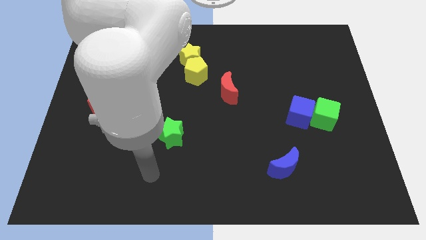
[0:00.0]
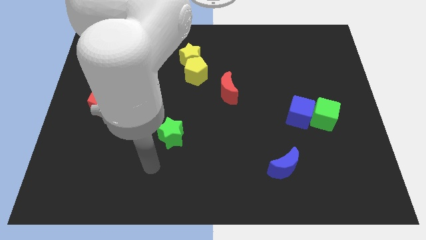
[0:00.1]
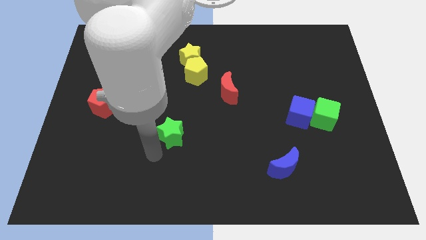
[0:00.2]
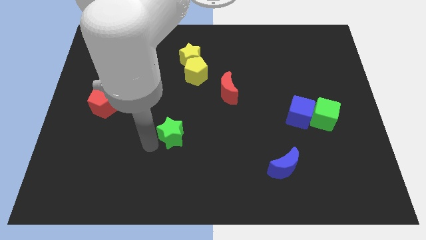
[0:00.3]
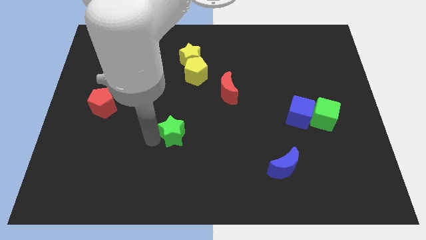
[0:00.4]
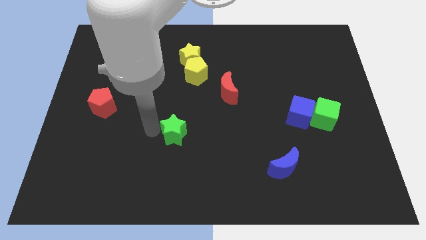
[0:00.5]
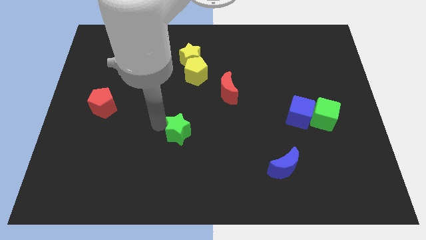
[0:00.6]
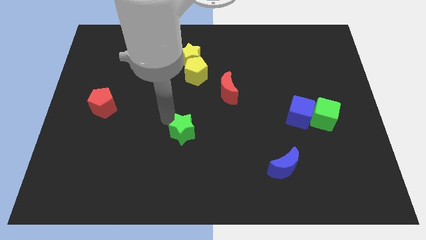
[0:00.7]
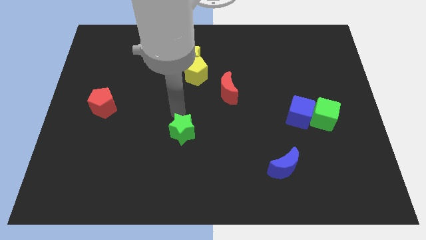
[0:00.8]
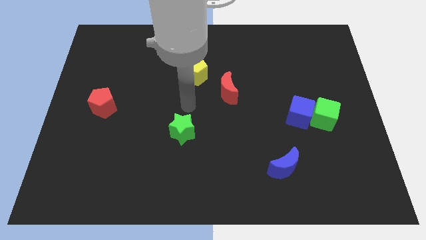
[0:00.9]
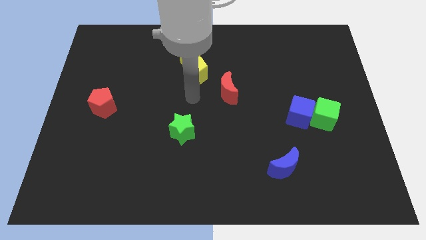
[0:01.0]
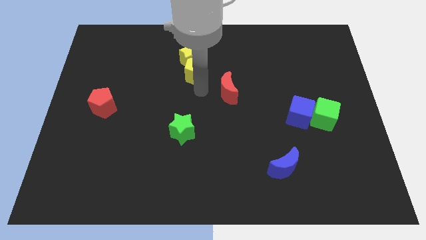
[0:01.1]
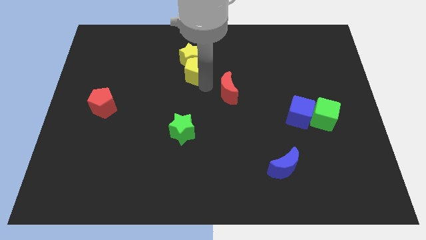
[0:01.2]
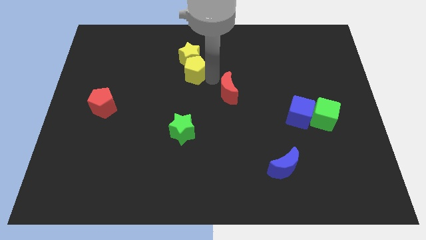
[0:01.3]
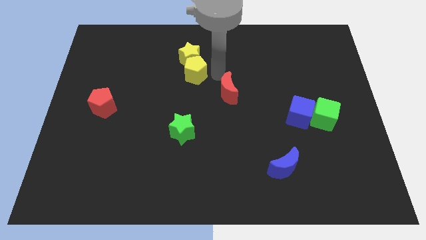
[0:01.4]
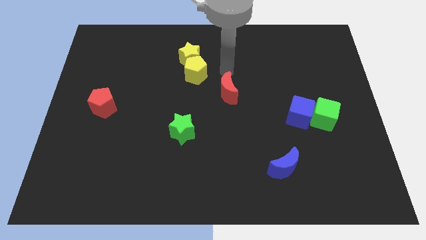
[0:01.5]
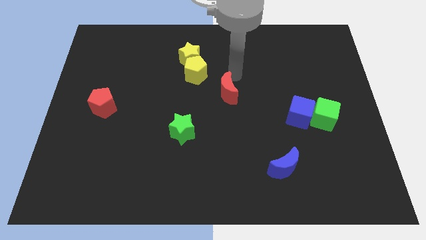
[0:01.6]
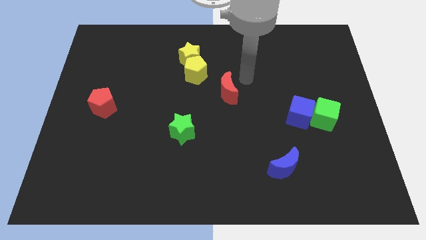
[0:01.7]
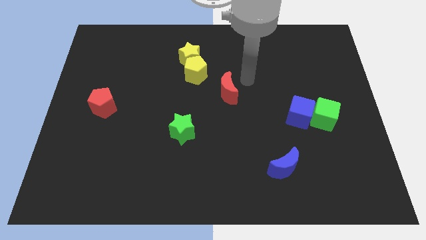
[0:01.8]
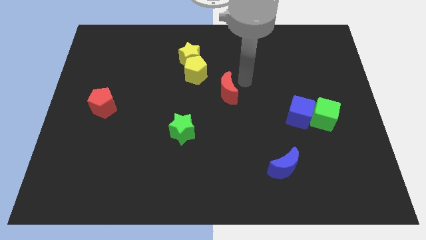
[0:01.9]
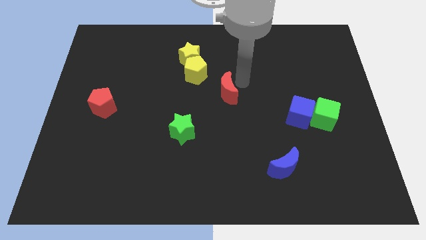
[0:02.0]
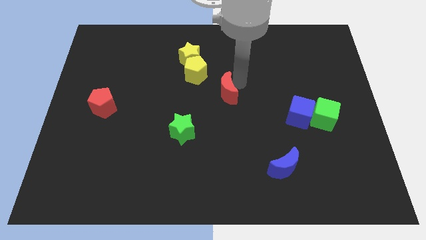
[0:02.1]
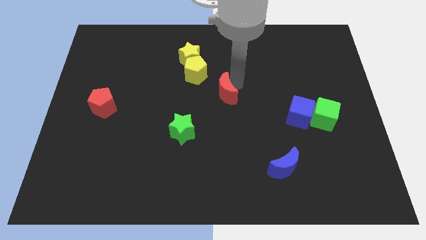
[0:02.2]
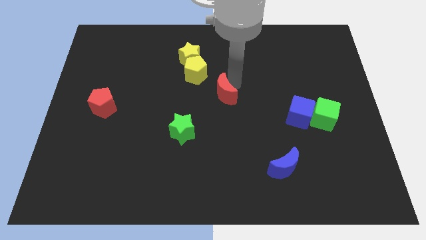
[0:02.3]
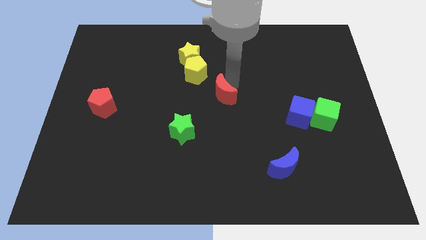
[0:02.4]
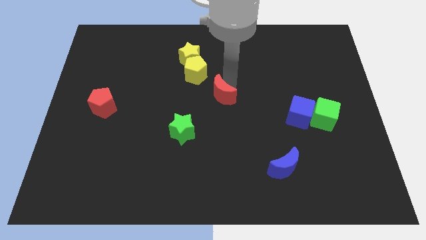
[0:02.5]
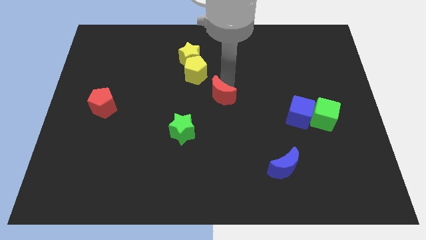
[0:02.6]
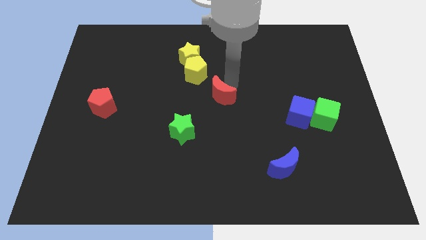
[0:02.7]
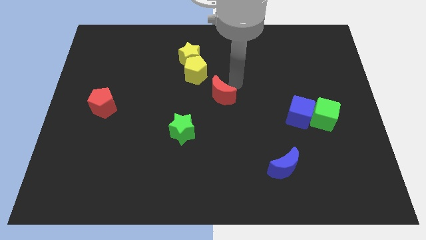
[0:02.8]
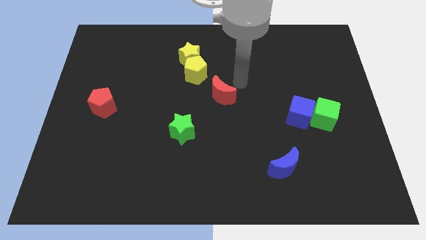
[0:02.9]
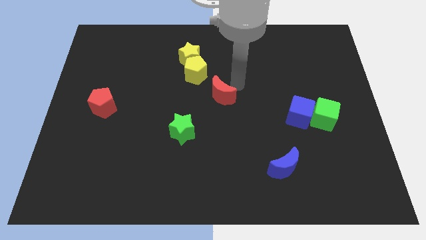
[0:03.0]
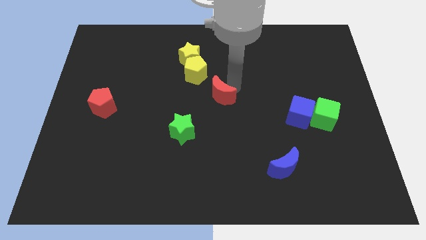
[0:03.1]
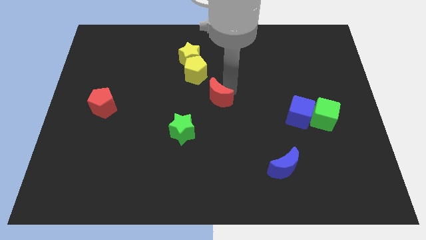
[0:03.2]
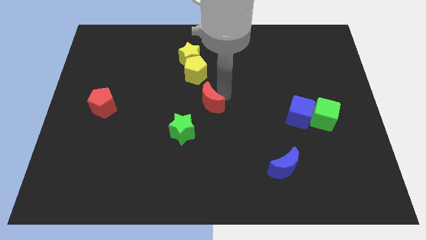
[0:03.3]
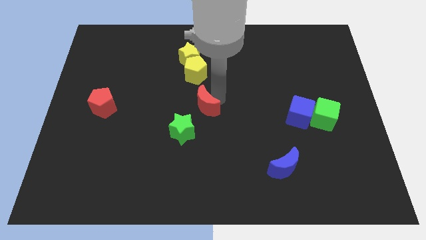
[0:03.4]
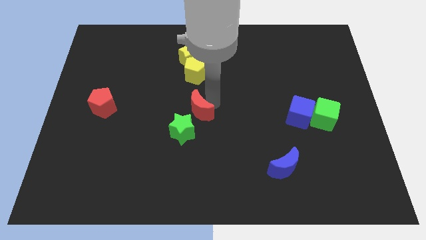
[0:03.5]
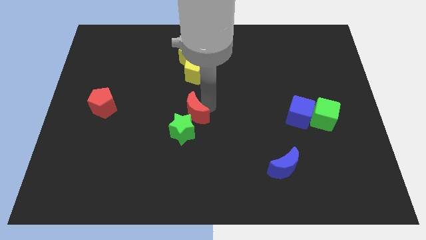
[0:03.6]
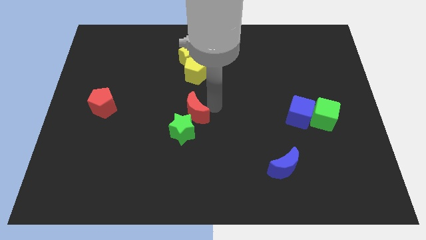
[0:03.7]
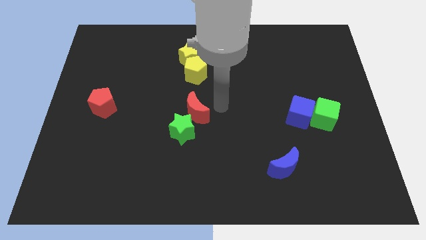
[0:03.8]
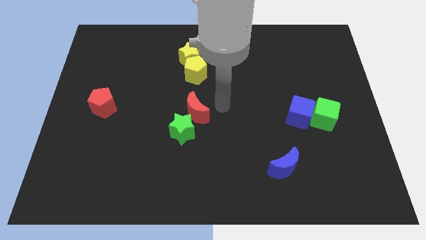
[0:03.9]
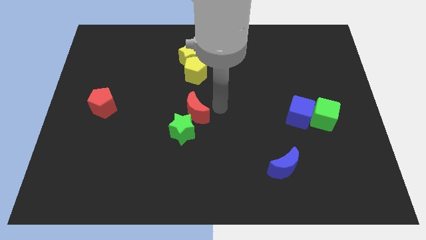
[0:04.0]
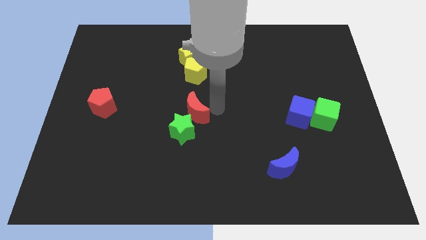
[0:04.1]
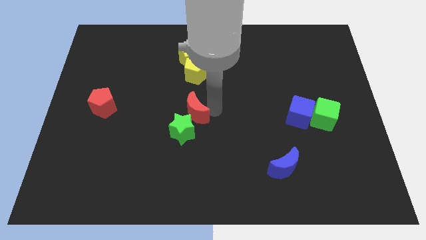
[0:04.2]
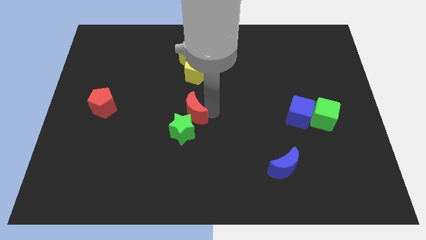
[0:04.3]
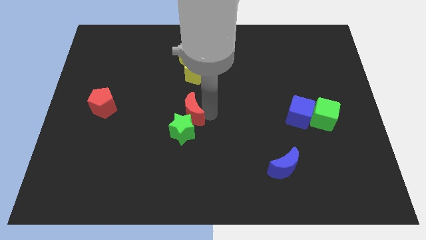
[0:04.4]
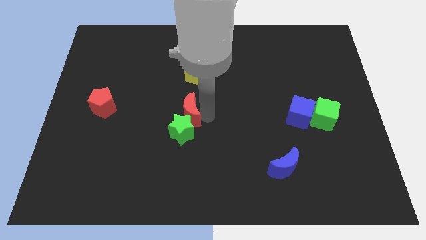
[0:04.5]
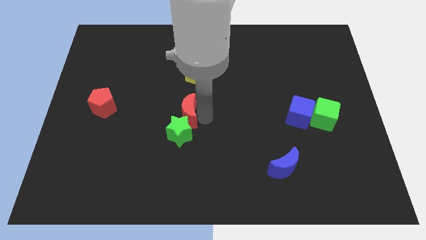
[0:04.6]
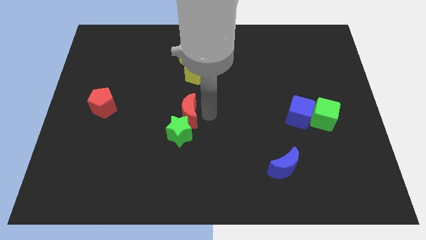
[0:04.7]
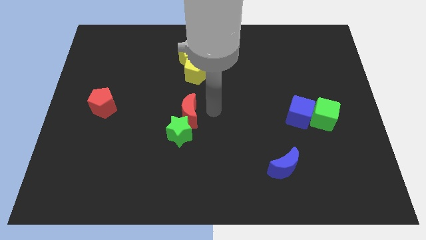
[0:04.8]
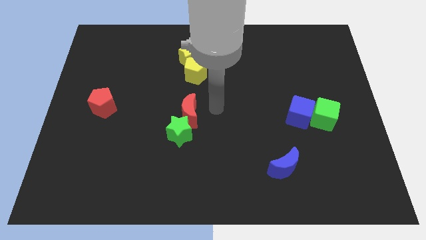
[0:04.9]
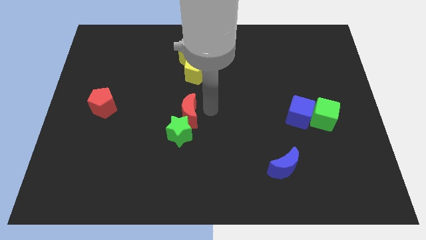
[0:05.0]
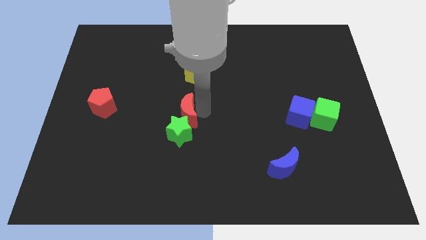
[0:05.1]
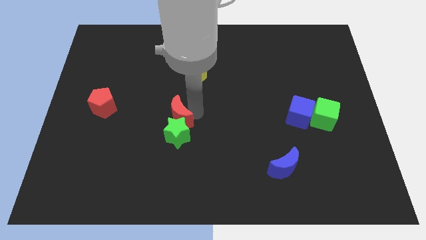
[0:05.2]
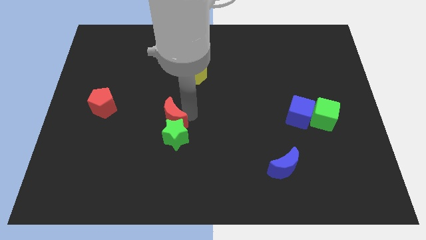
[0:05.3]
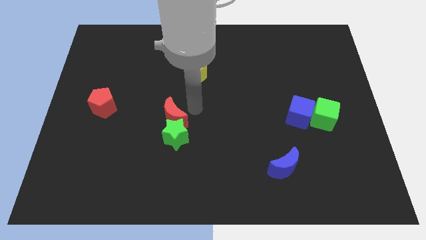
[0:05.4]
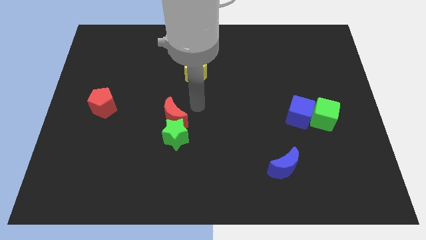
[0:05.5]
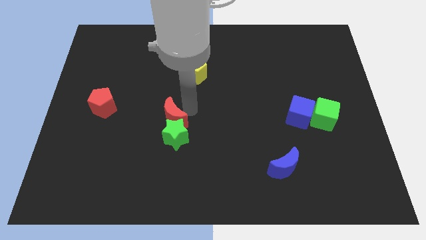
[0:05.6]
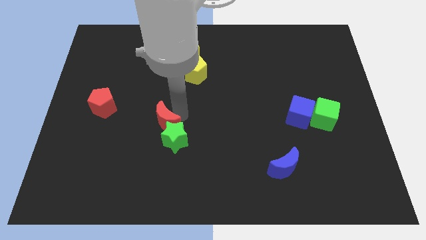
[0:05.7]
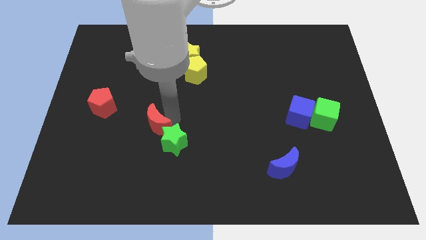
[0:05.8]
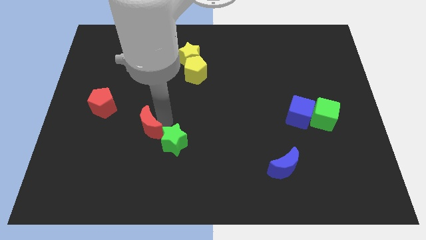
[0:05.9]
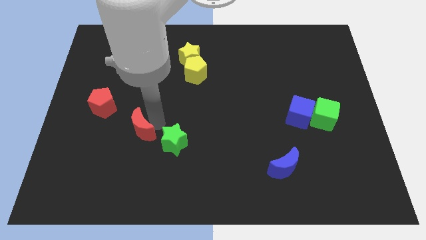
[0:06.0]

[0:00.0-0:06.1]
slide the red moon downwards and then to the left

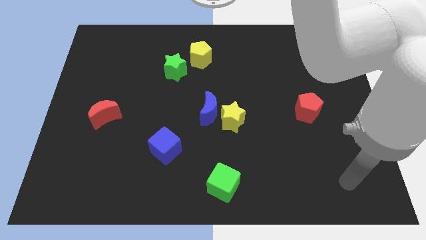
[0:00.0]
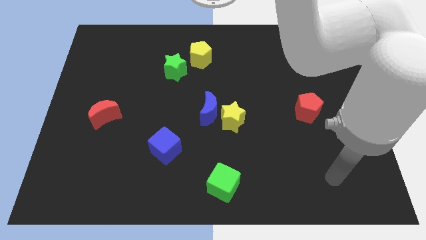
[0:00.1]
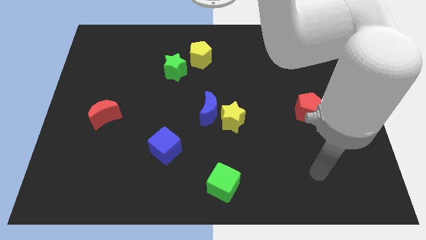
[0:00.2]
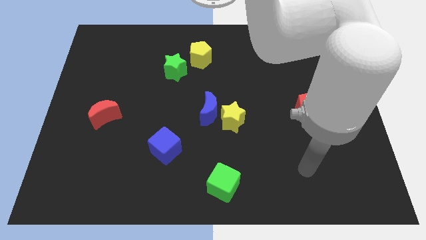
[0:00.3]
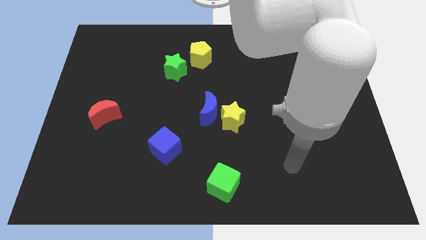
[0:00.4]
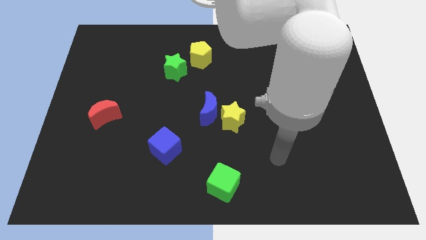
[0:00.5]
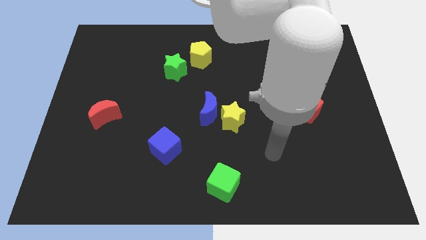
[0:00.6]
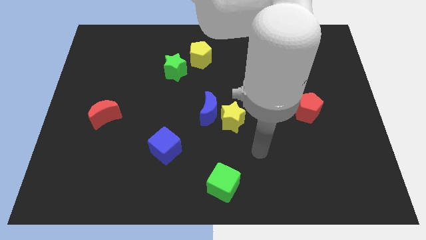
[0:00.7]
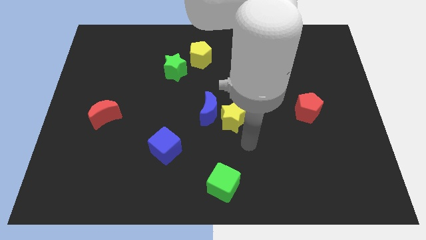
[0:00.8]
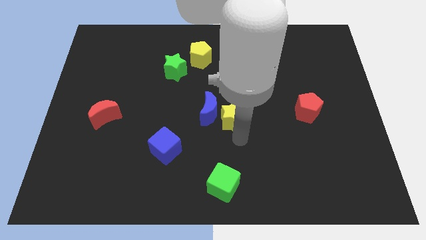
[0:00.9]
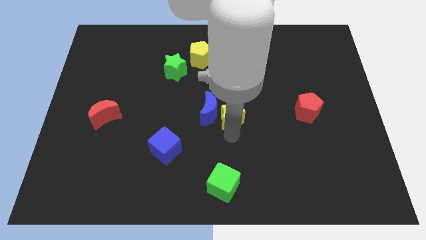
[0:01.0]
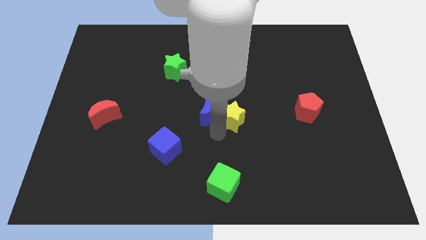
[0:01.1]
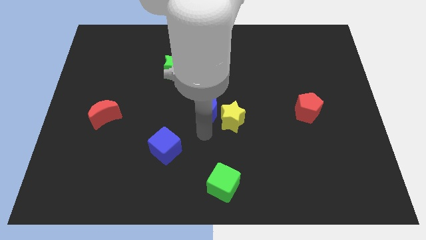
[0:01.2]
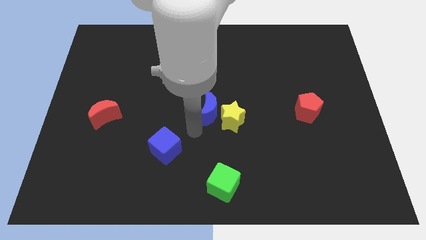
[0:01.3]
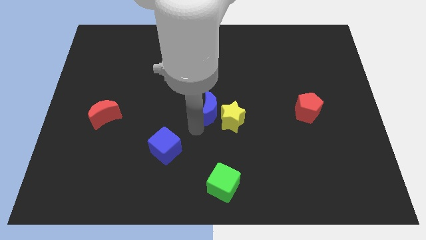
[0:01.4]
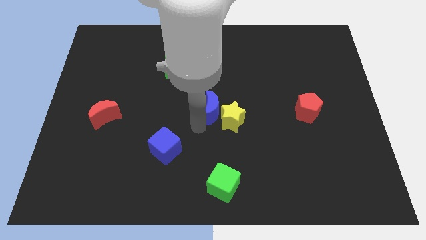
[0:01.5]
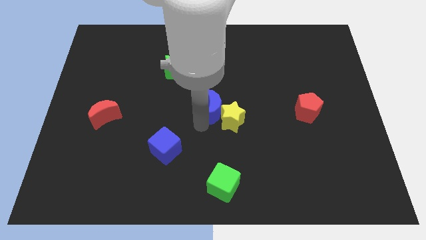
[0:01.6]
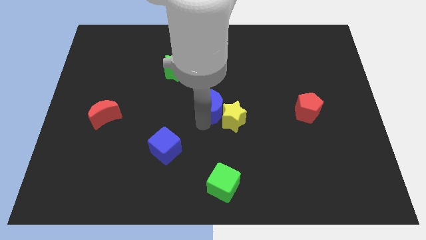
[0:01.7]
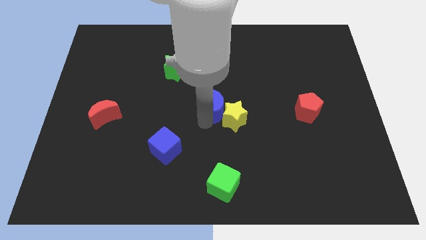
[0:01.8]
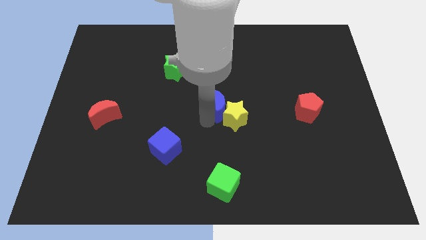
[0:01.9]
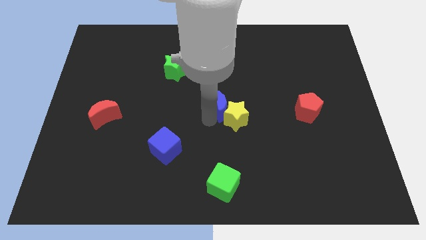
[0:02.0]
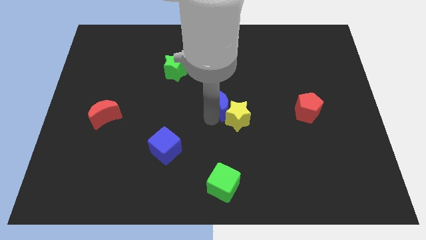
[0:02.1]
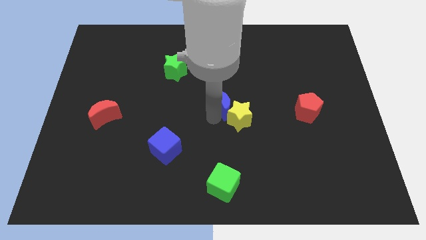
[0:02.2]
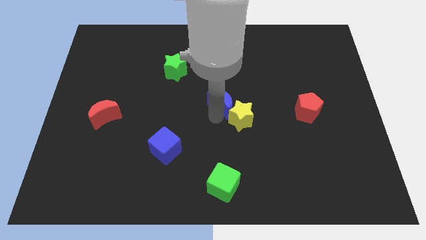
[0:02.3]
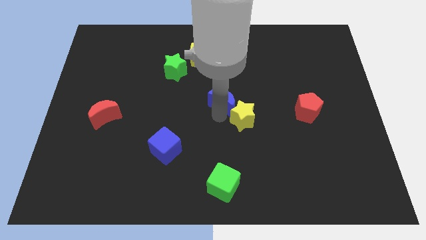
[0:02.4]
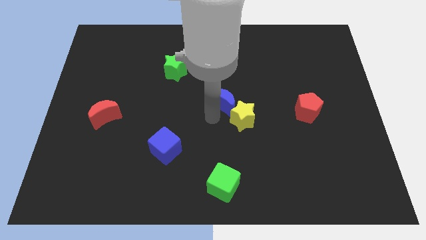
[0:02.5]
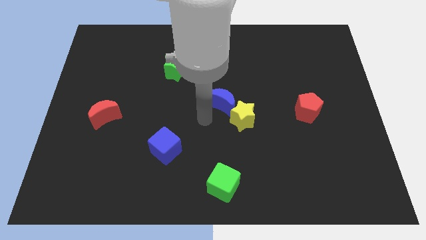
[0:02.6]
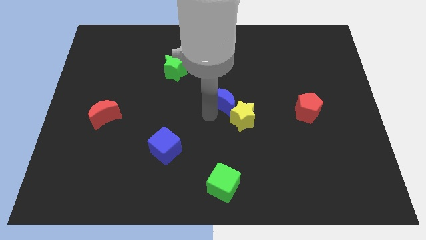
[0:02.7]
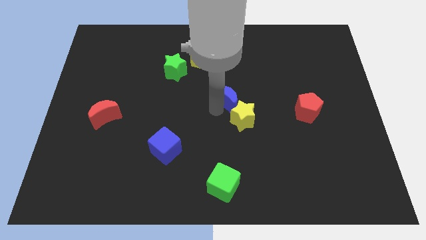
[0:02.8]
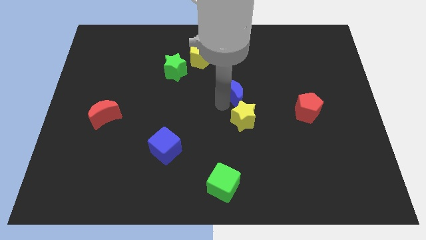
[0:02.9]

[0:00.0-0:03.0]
slightly move the blue moon upwards and to the right diagonally
